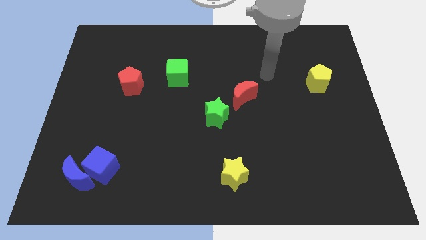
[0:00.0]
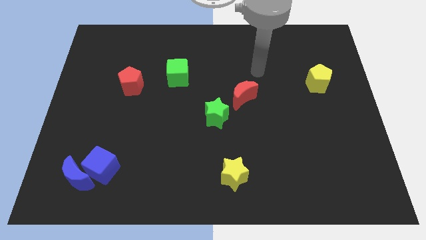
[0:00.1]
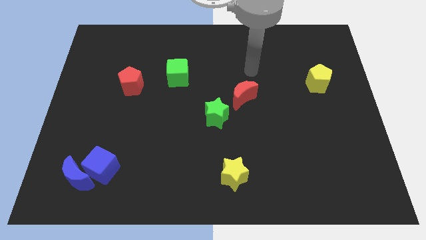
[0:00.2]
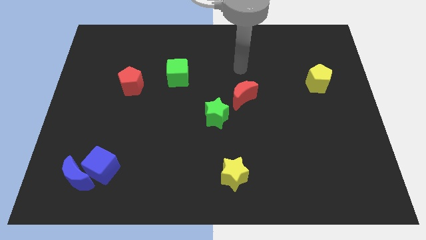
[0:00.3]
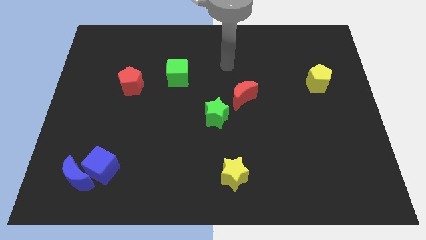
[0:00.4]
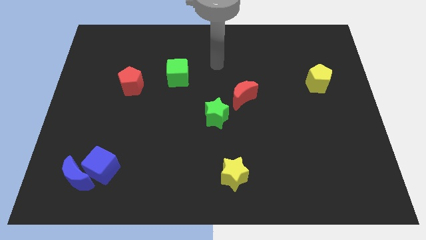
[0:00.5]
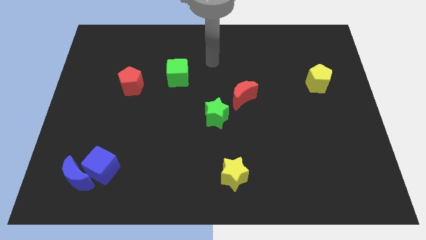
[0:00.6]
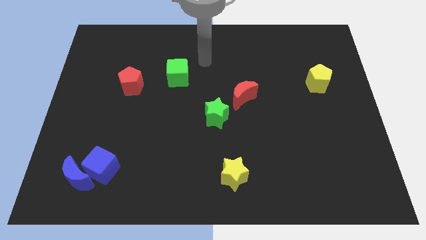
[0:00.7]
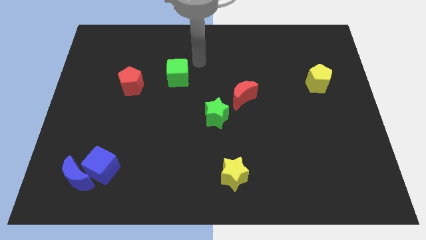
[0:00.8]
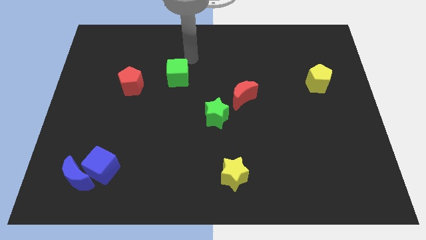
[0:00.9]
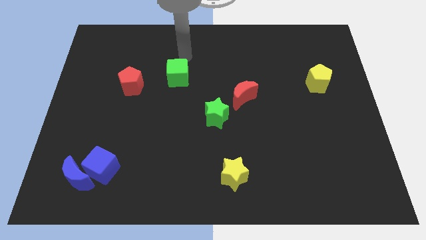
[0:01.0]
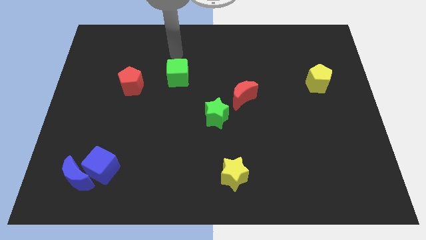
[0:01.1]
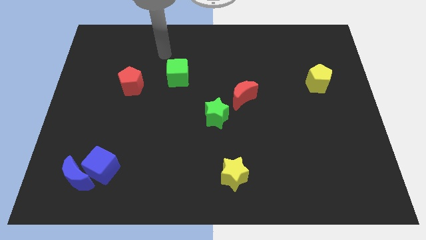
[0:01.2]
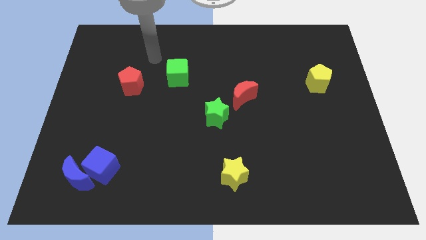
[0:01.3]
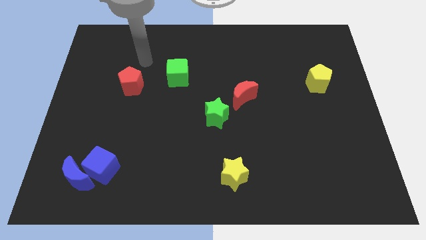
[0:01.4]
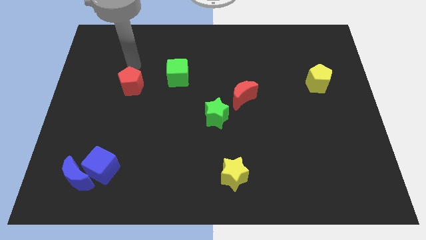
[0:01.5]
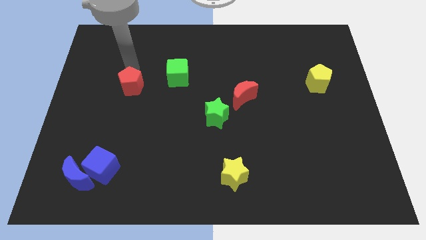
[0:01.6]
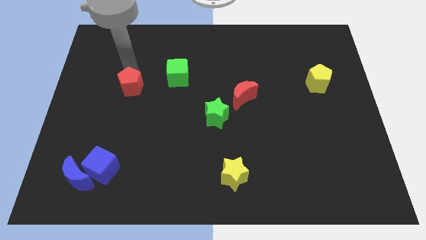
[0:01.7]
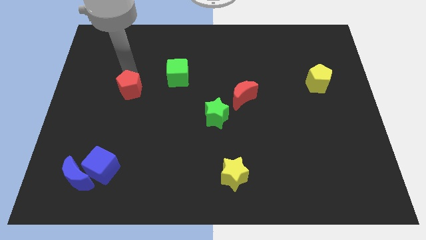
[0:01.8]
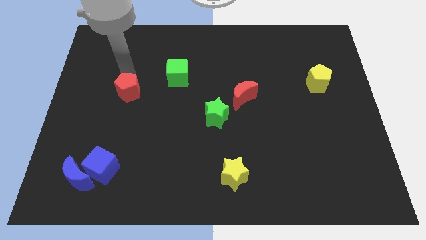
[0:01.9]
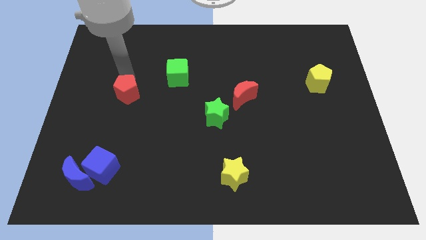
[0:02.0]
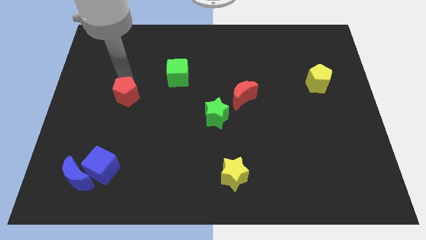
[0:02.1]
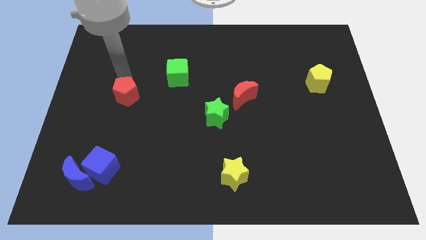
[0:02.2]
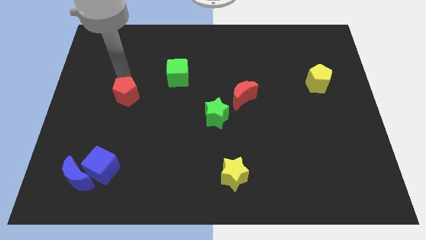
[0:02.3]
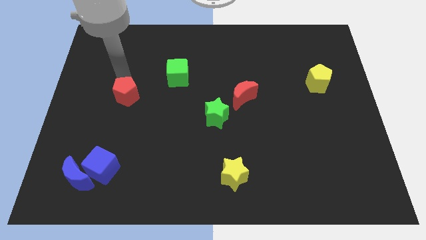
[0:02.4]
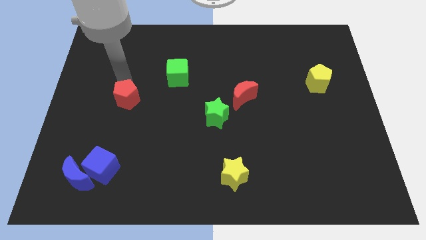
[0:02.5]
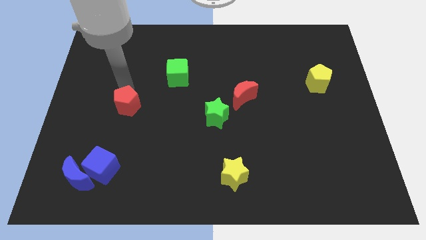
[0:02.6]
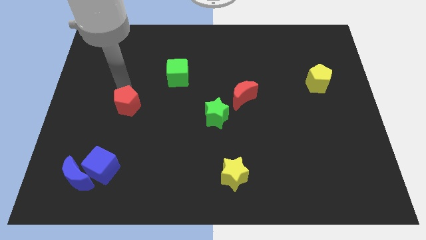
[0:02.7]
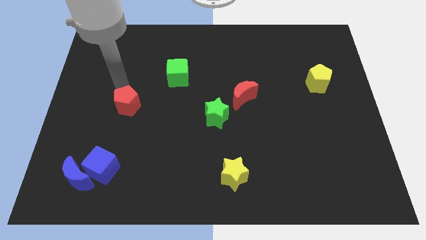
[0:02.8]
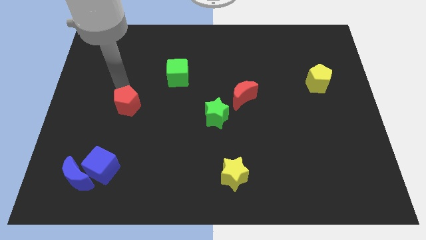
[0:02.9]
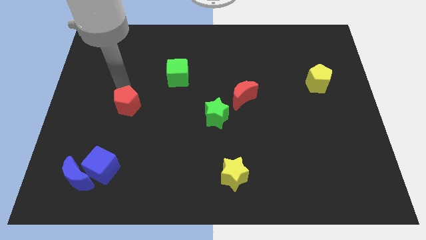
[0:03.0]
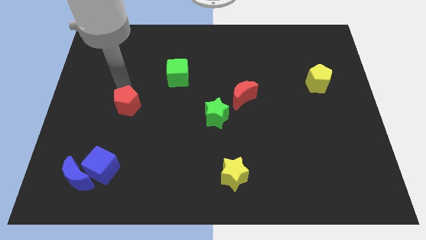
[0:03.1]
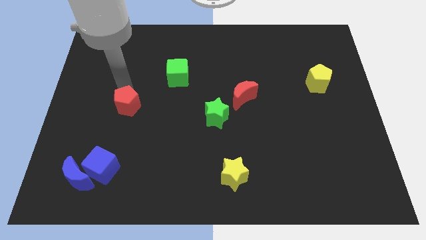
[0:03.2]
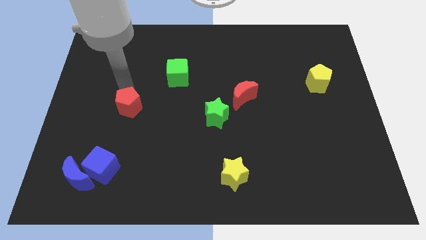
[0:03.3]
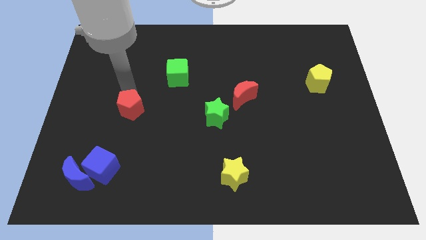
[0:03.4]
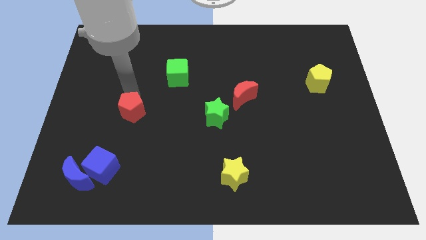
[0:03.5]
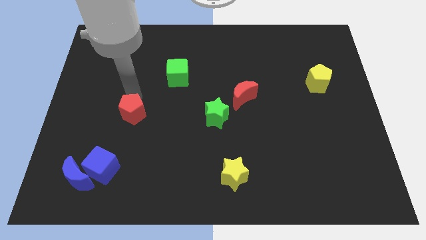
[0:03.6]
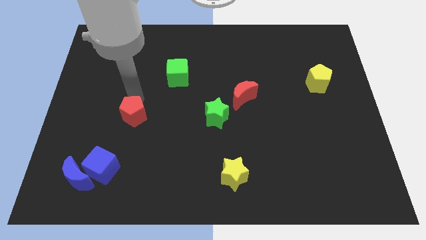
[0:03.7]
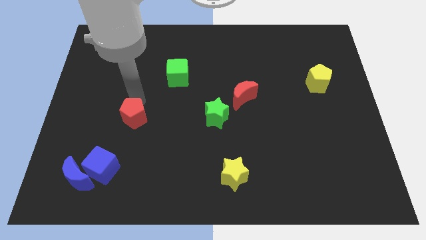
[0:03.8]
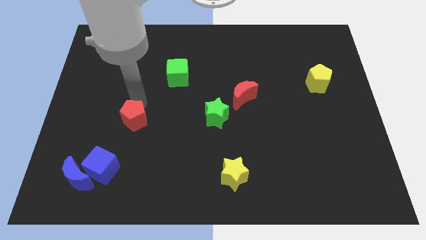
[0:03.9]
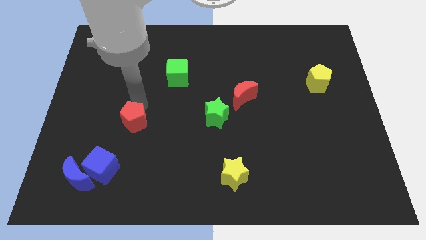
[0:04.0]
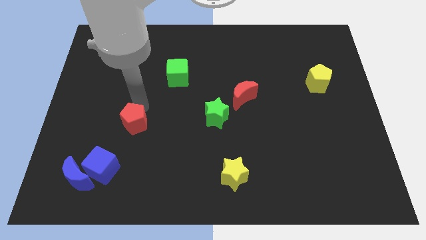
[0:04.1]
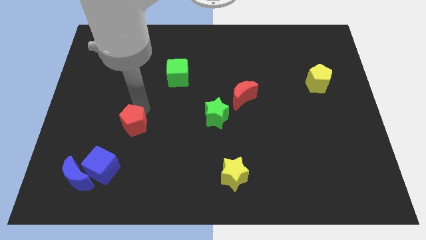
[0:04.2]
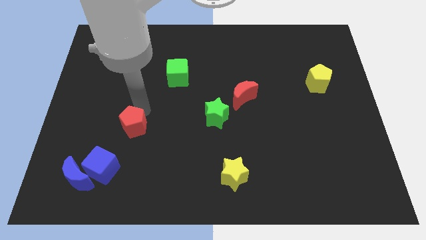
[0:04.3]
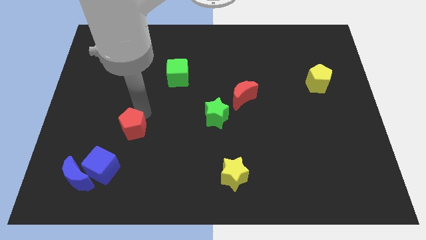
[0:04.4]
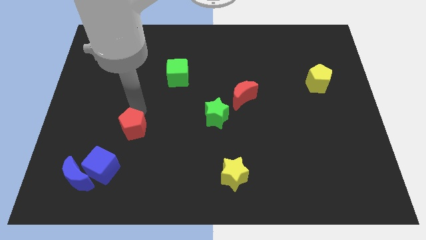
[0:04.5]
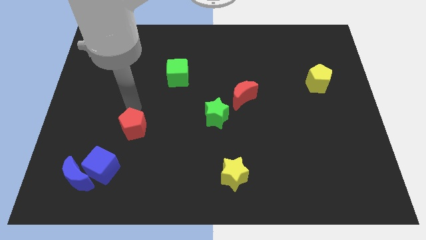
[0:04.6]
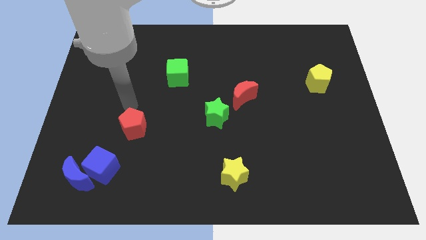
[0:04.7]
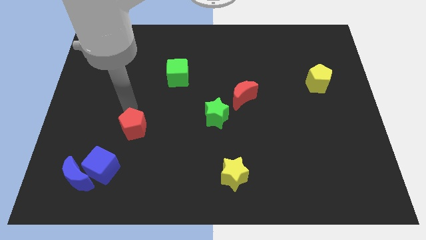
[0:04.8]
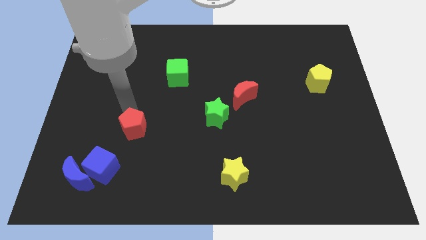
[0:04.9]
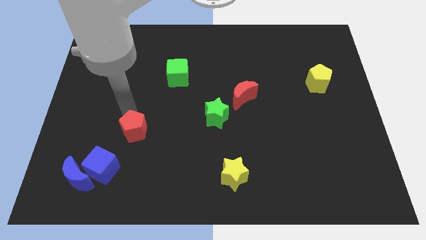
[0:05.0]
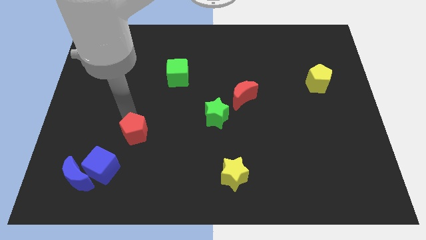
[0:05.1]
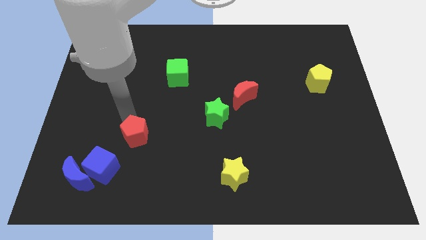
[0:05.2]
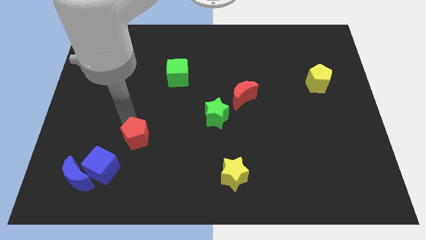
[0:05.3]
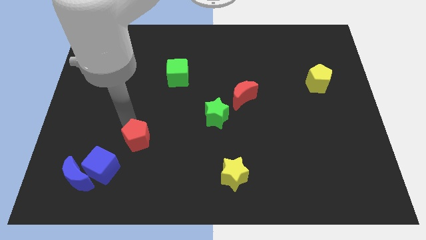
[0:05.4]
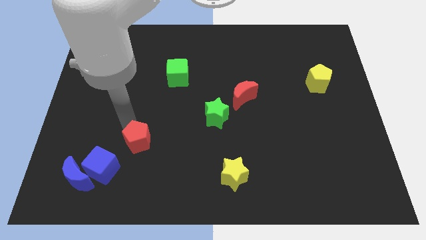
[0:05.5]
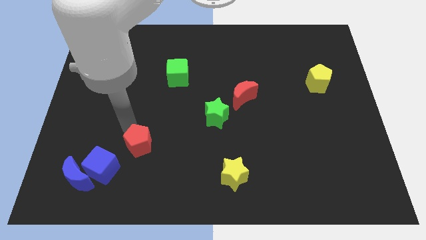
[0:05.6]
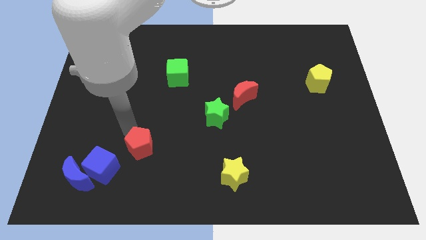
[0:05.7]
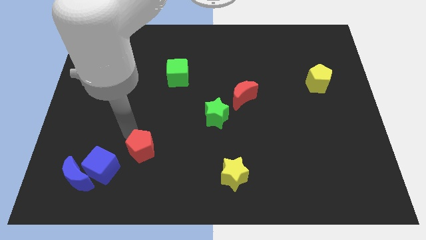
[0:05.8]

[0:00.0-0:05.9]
slide the red pentagon right of the blue cube
